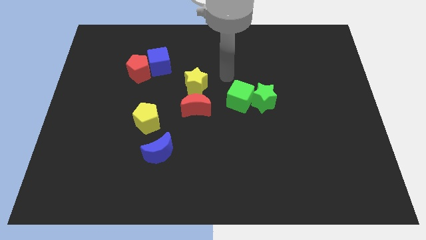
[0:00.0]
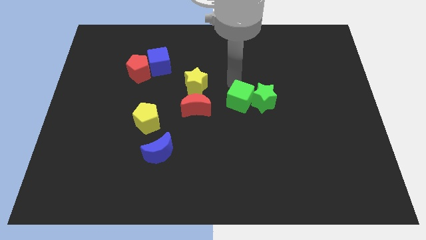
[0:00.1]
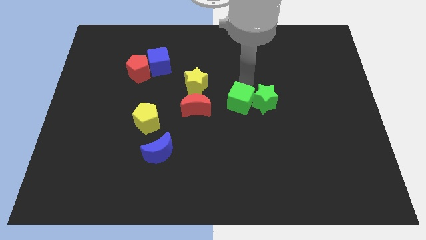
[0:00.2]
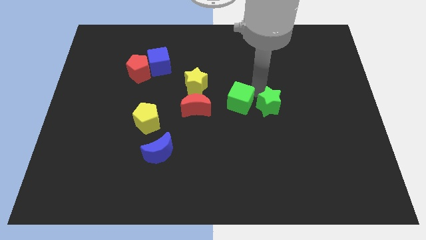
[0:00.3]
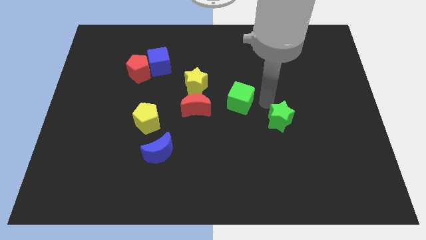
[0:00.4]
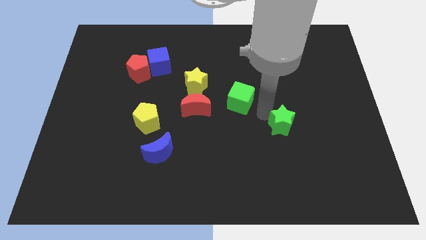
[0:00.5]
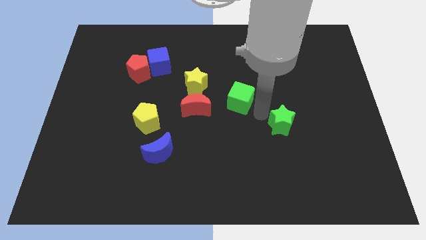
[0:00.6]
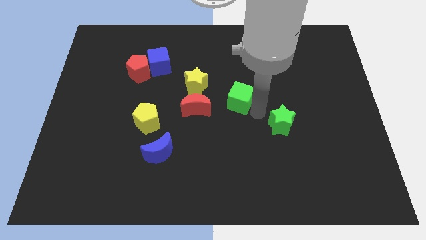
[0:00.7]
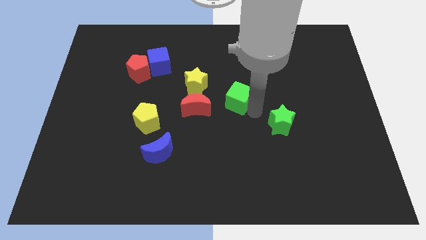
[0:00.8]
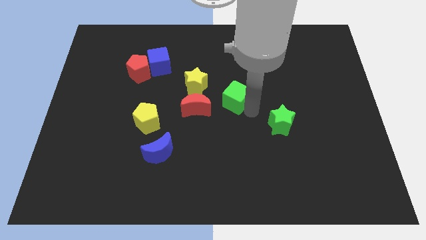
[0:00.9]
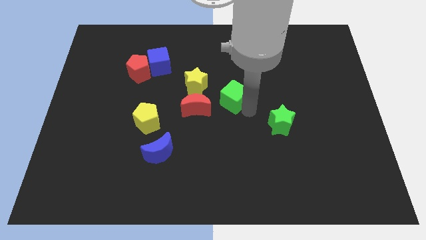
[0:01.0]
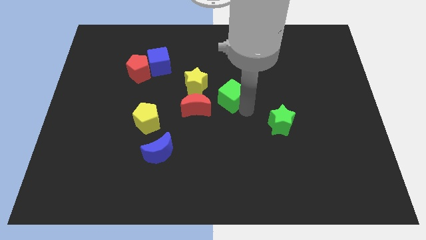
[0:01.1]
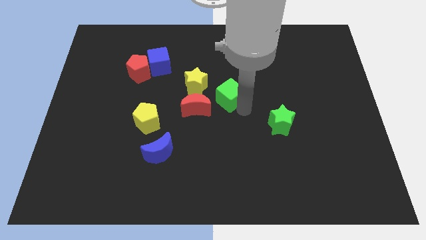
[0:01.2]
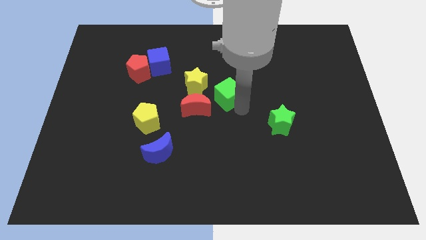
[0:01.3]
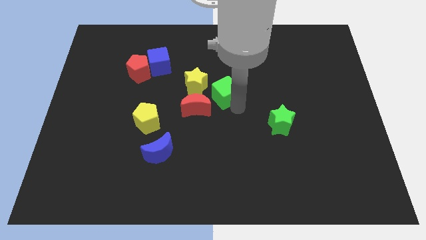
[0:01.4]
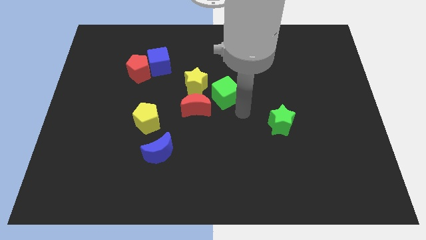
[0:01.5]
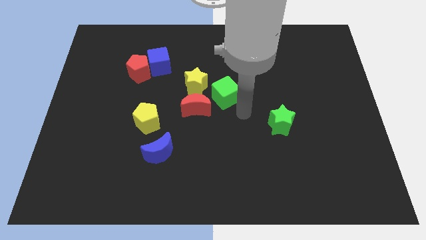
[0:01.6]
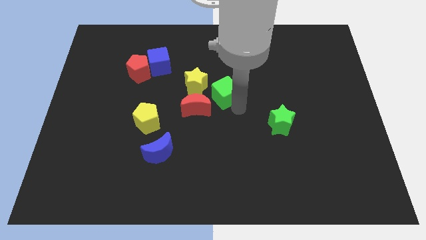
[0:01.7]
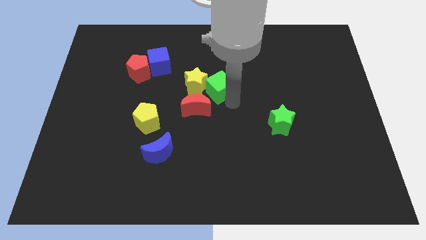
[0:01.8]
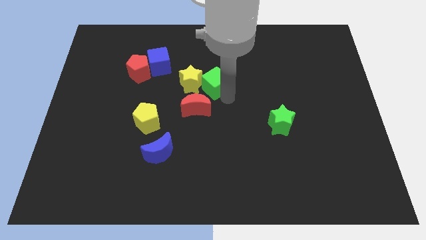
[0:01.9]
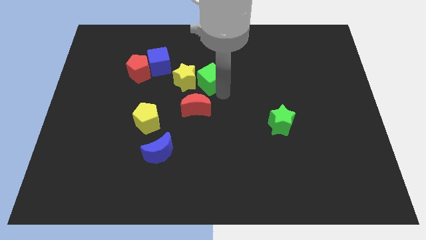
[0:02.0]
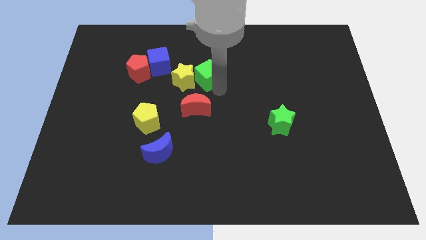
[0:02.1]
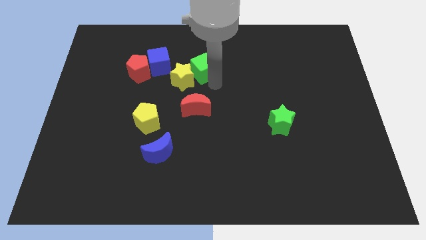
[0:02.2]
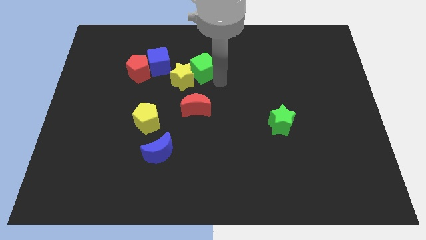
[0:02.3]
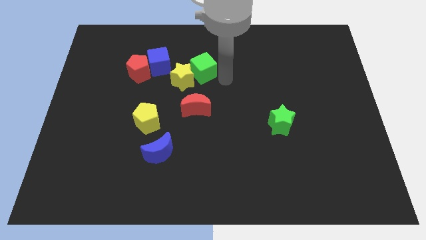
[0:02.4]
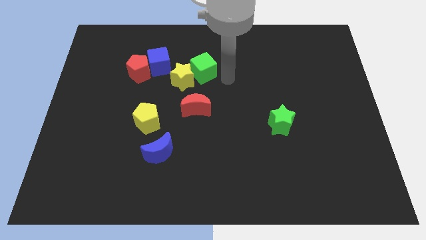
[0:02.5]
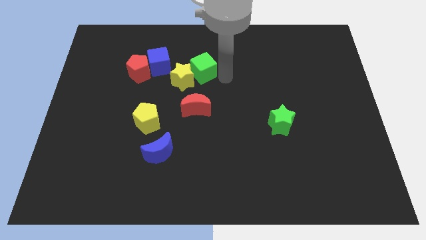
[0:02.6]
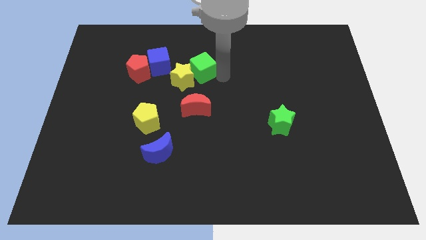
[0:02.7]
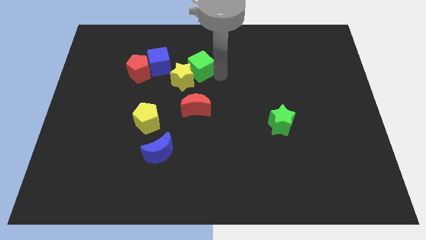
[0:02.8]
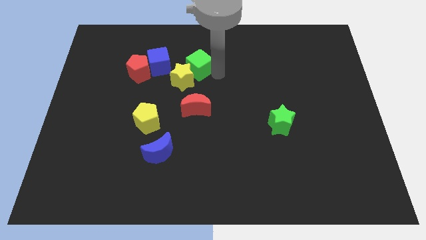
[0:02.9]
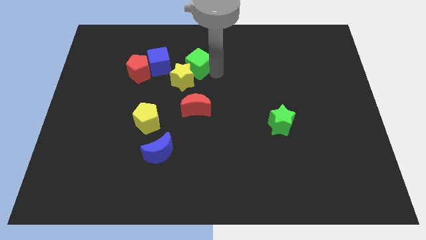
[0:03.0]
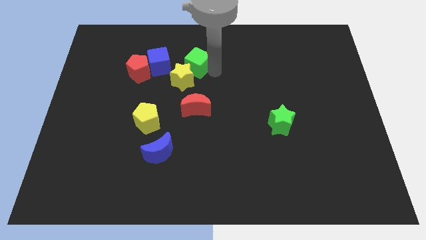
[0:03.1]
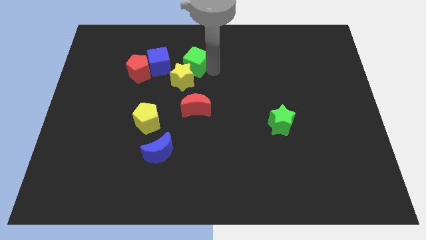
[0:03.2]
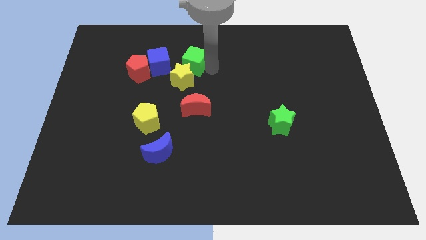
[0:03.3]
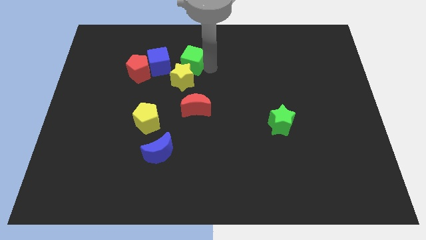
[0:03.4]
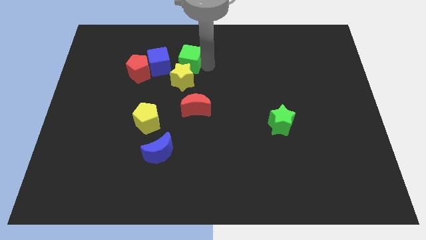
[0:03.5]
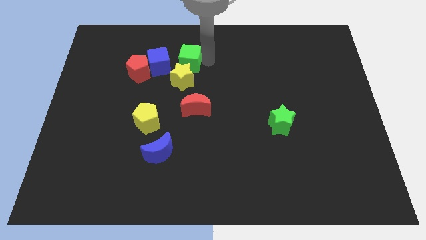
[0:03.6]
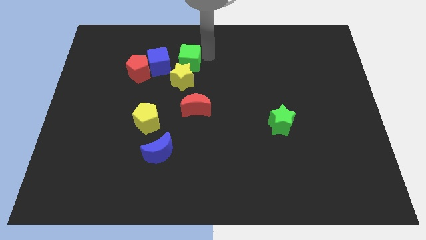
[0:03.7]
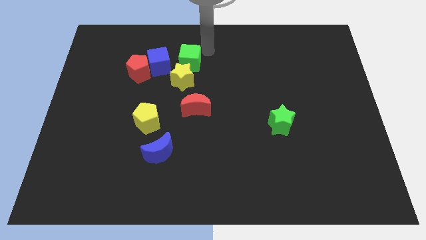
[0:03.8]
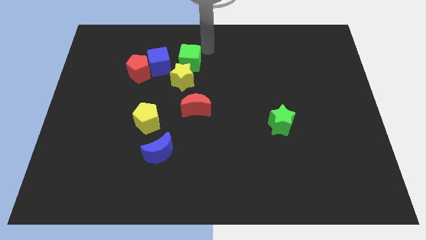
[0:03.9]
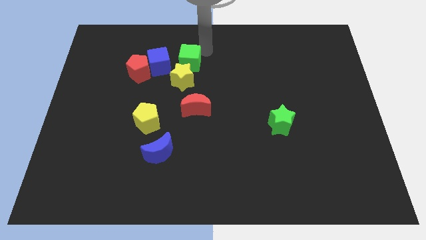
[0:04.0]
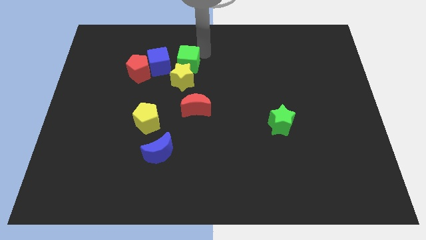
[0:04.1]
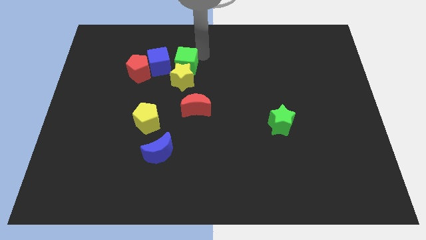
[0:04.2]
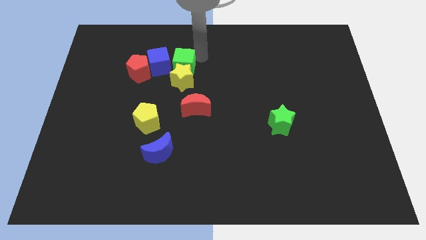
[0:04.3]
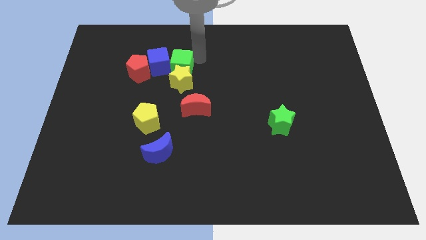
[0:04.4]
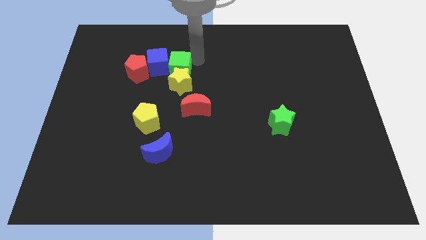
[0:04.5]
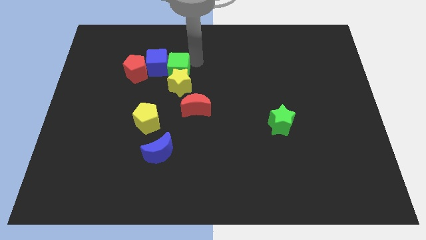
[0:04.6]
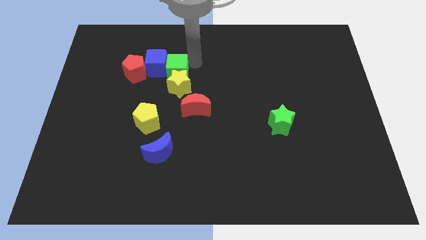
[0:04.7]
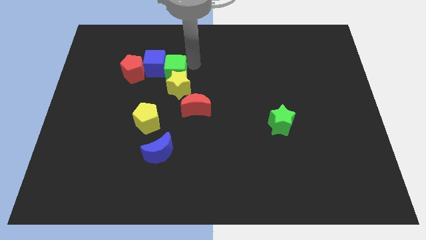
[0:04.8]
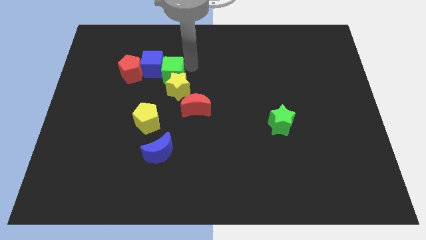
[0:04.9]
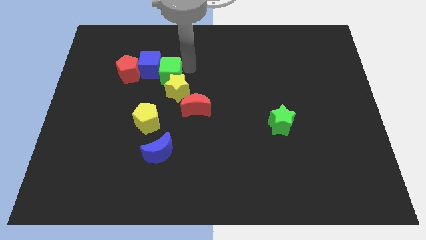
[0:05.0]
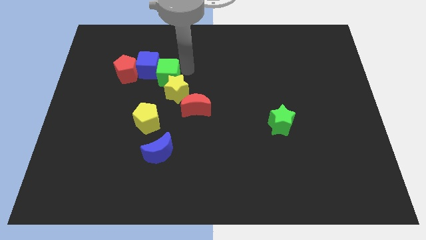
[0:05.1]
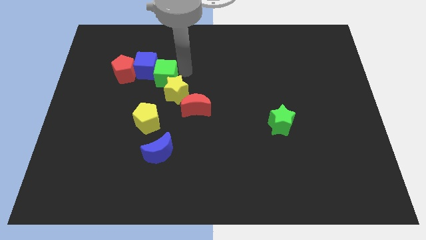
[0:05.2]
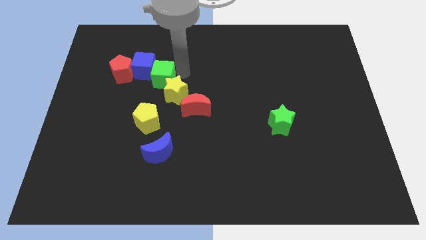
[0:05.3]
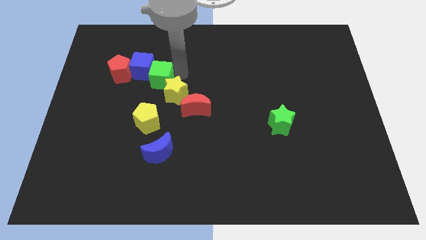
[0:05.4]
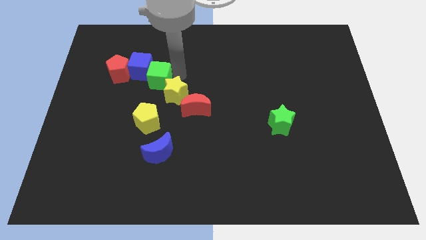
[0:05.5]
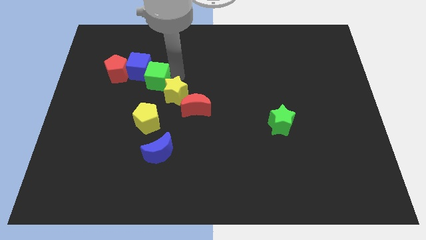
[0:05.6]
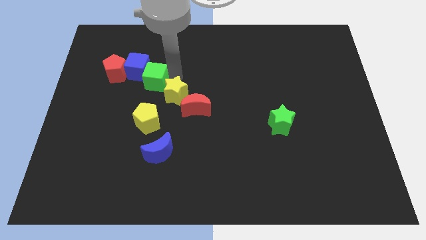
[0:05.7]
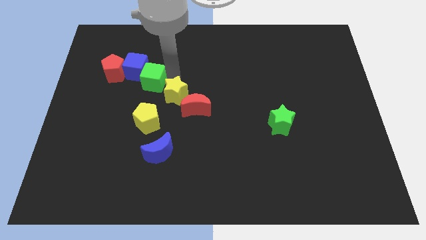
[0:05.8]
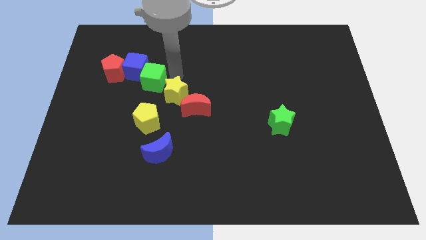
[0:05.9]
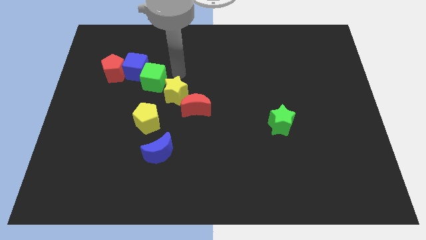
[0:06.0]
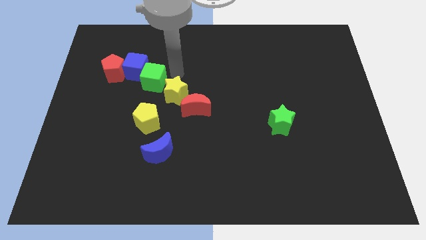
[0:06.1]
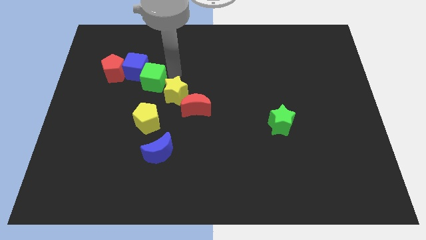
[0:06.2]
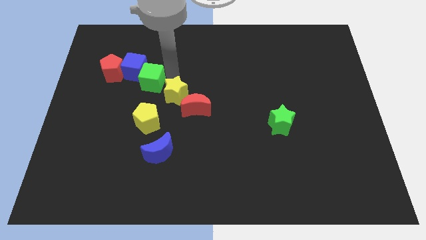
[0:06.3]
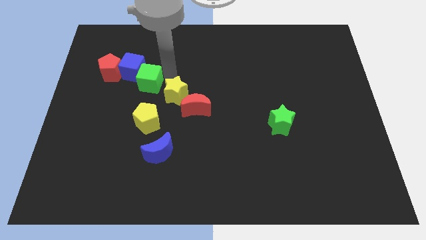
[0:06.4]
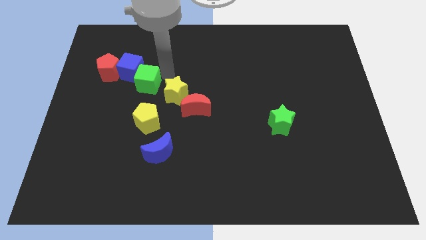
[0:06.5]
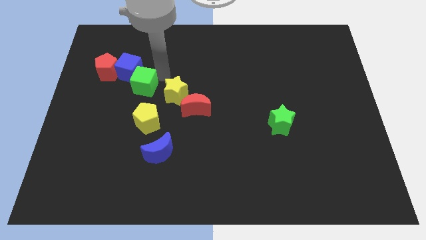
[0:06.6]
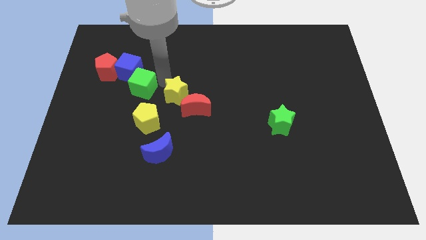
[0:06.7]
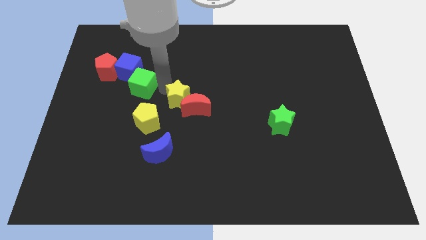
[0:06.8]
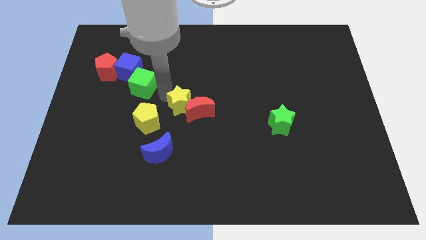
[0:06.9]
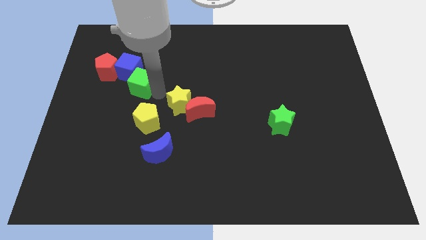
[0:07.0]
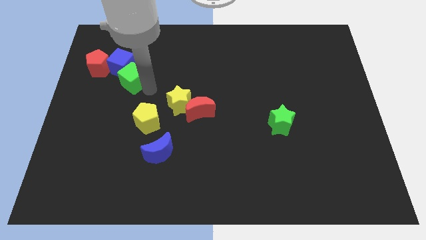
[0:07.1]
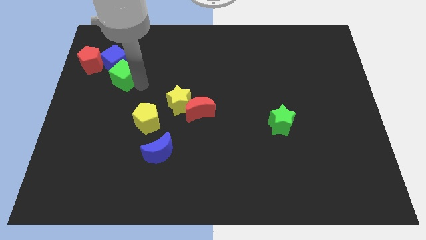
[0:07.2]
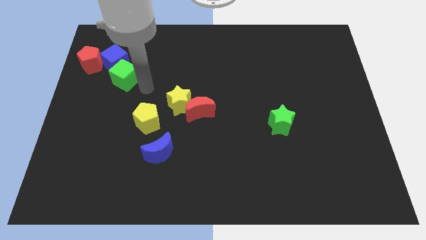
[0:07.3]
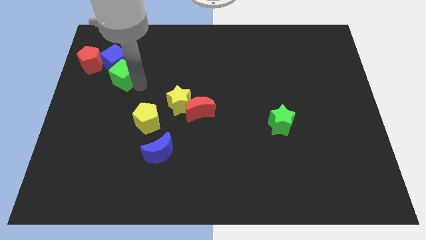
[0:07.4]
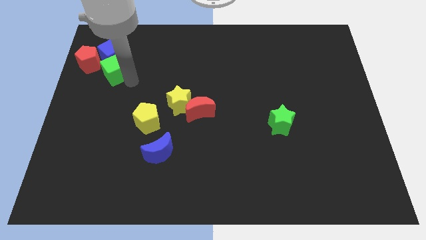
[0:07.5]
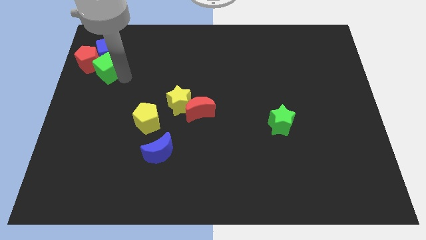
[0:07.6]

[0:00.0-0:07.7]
slide the green cube towards the red pentagon

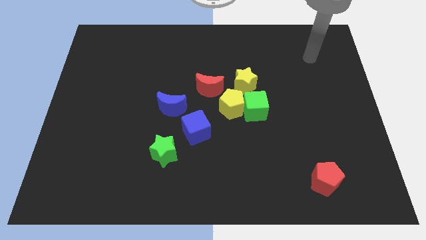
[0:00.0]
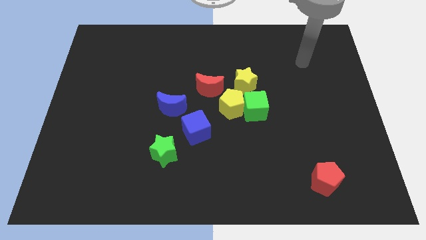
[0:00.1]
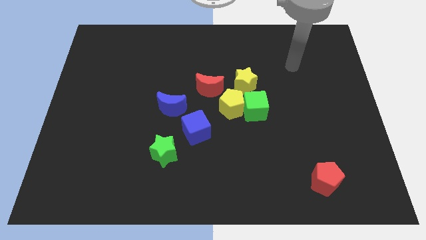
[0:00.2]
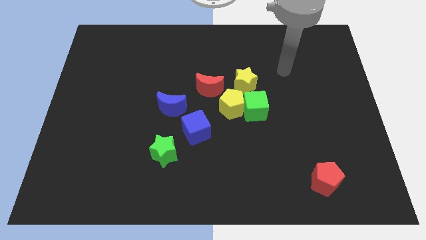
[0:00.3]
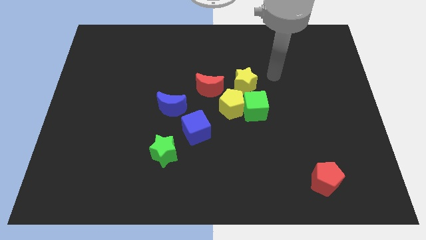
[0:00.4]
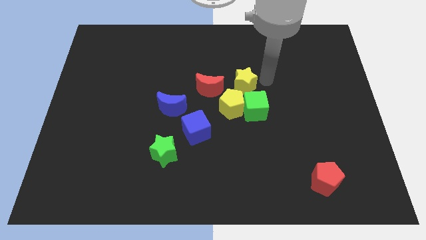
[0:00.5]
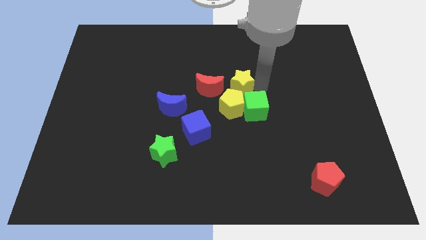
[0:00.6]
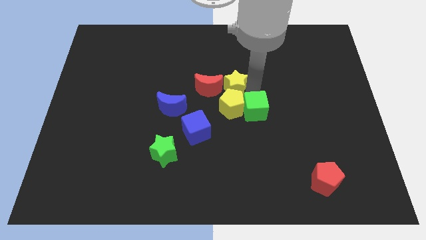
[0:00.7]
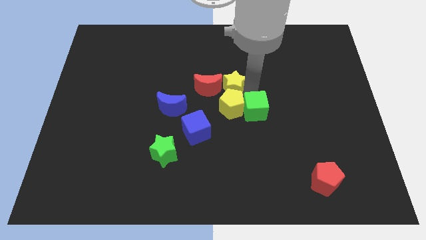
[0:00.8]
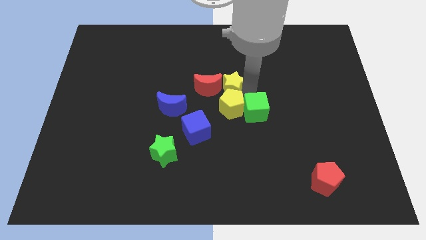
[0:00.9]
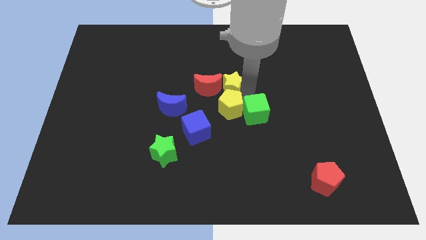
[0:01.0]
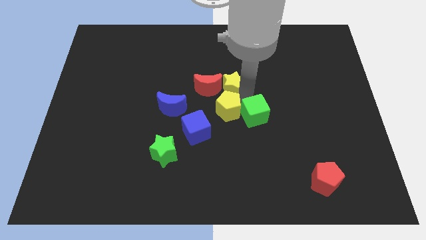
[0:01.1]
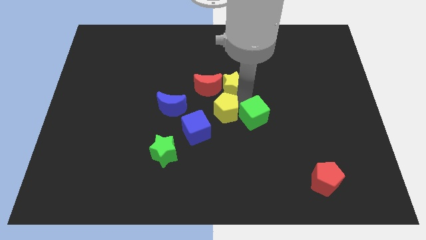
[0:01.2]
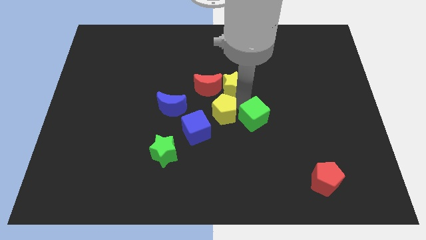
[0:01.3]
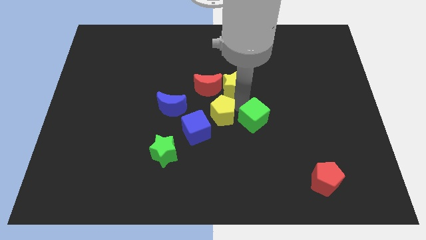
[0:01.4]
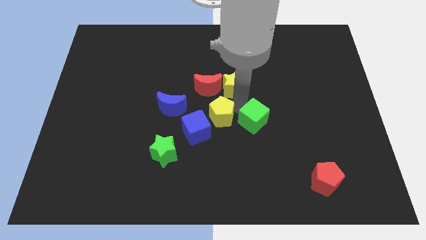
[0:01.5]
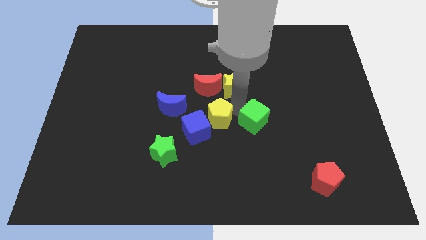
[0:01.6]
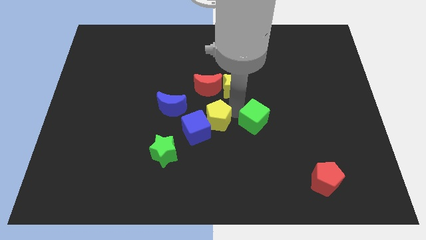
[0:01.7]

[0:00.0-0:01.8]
slide the yellow pentagon to the blue cube
